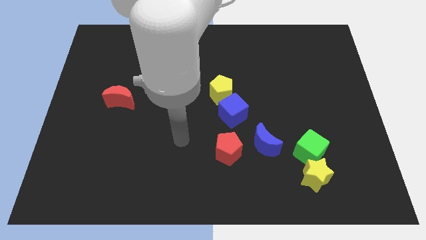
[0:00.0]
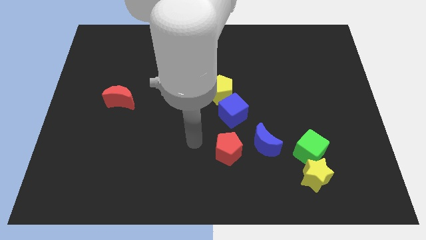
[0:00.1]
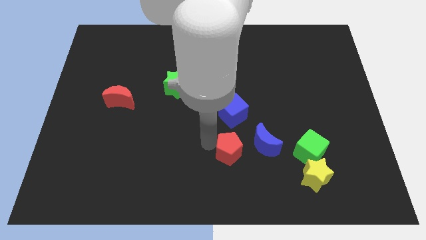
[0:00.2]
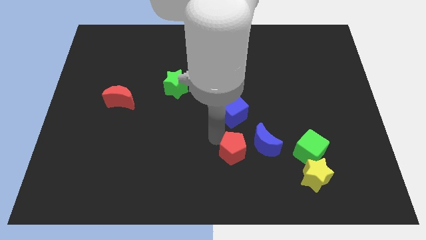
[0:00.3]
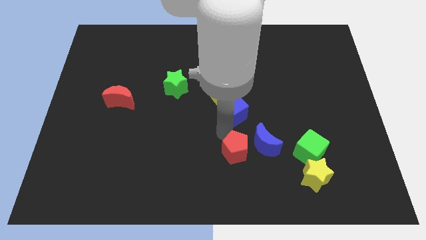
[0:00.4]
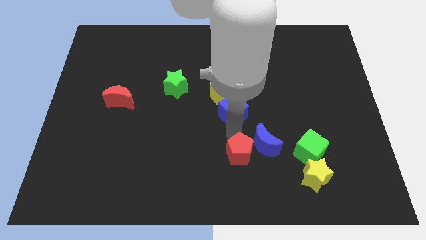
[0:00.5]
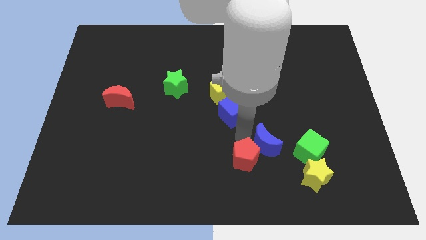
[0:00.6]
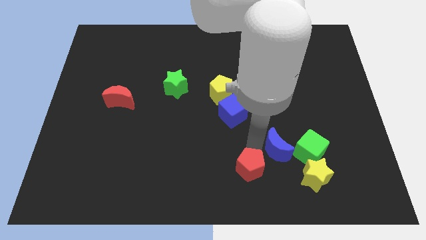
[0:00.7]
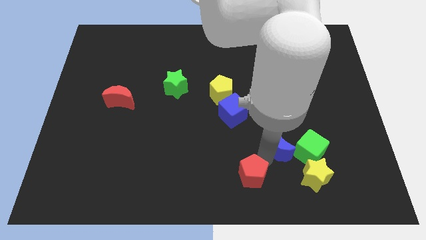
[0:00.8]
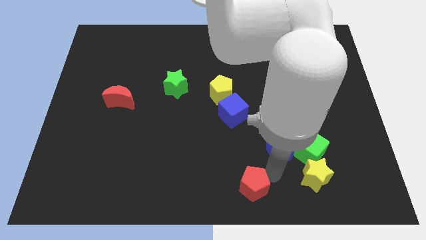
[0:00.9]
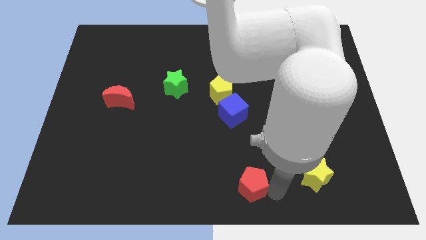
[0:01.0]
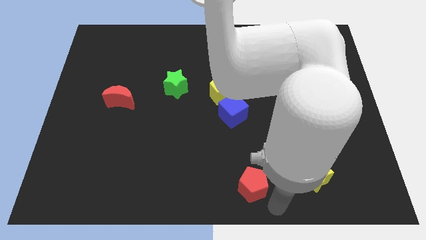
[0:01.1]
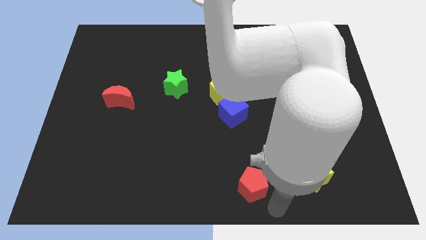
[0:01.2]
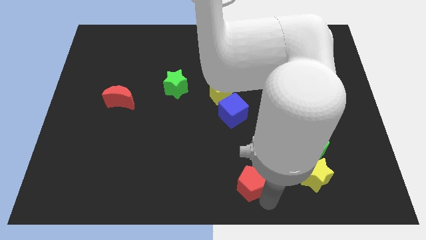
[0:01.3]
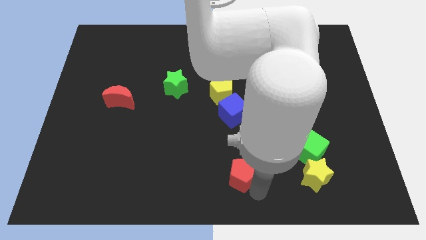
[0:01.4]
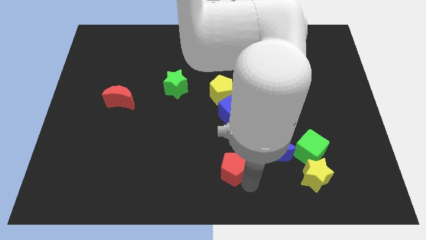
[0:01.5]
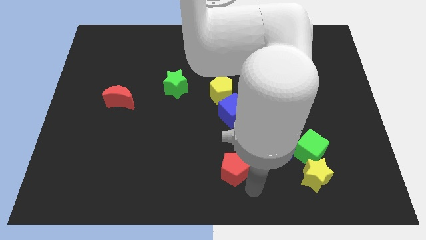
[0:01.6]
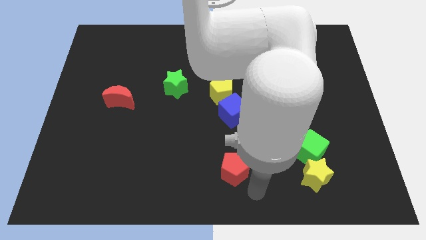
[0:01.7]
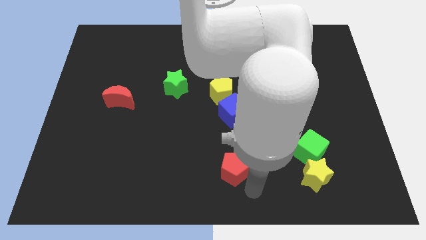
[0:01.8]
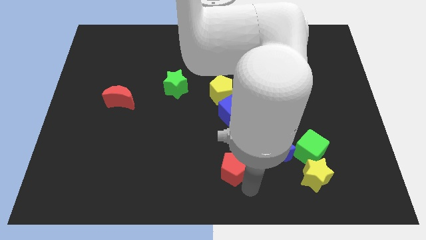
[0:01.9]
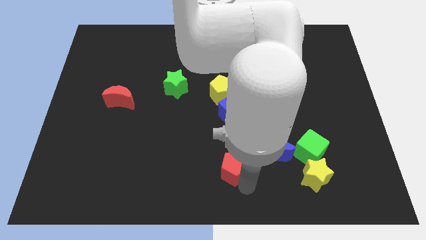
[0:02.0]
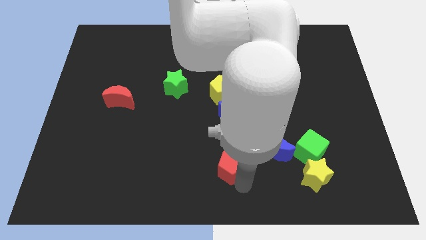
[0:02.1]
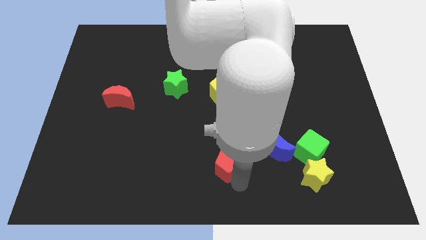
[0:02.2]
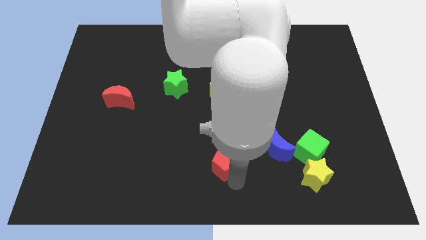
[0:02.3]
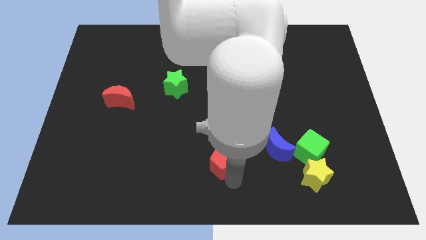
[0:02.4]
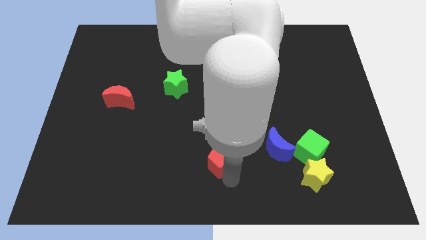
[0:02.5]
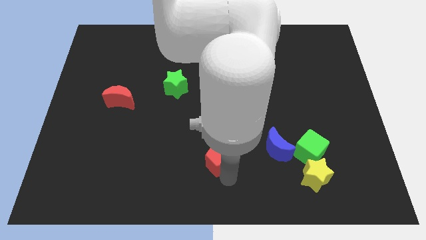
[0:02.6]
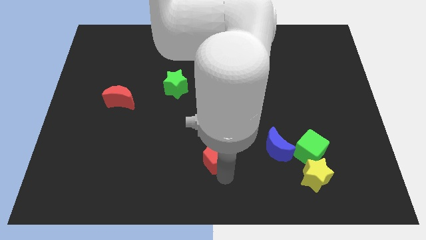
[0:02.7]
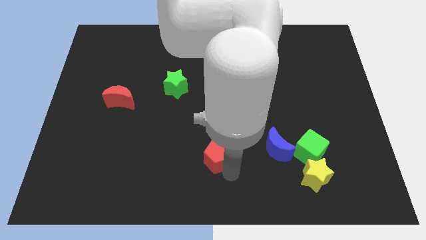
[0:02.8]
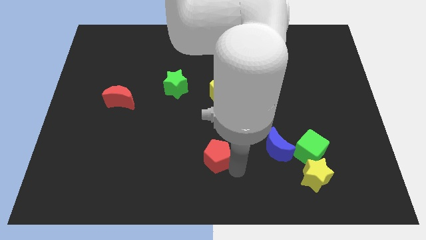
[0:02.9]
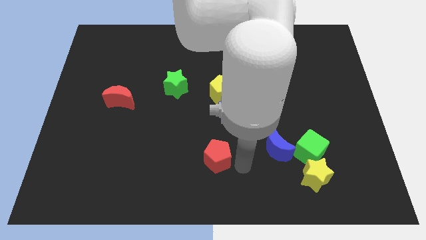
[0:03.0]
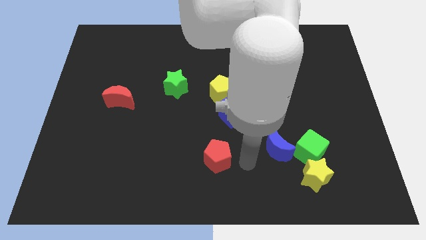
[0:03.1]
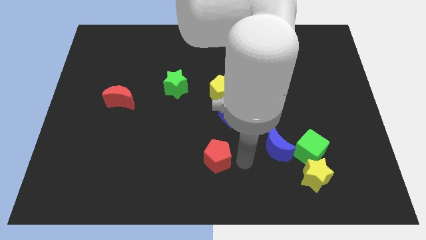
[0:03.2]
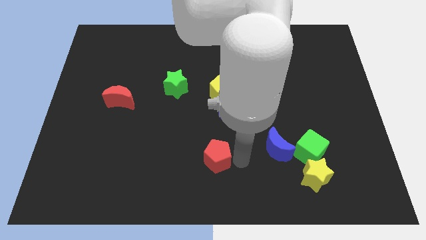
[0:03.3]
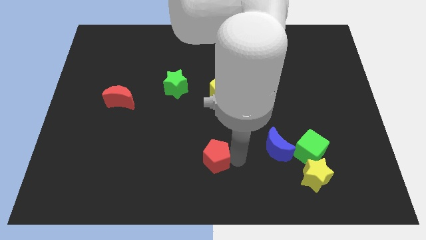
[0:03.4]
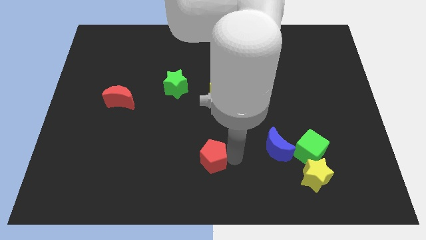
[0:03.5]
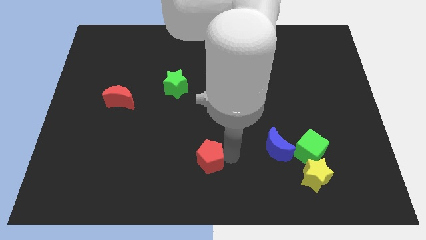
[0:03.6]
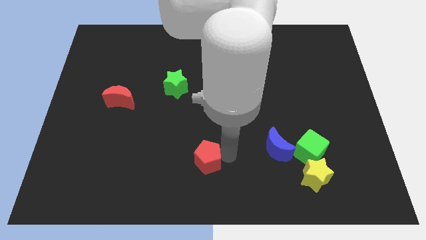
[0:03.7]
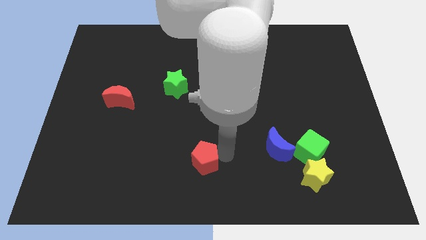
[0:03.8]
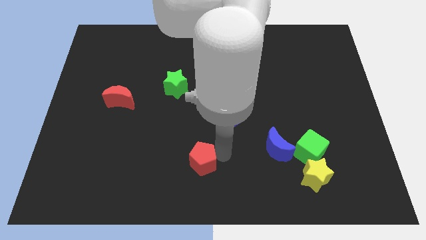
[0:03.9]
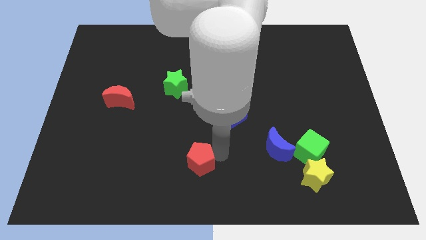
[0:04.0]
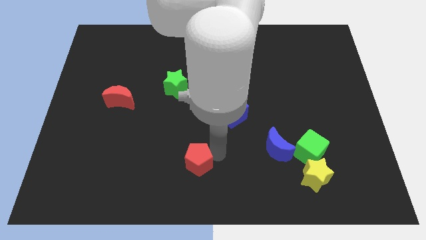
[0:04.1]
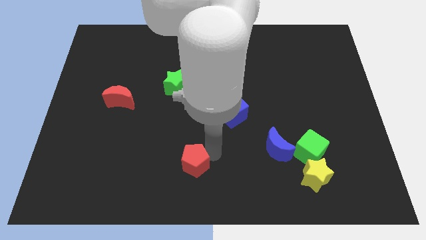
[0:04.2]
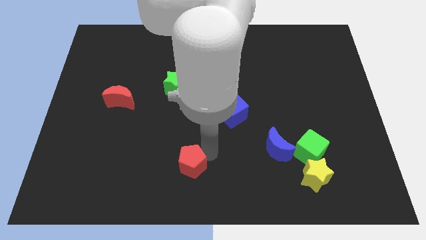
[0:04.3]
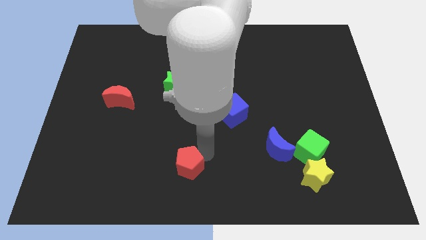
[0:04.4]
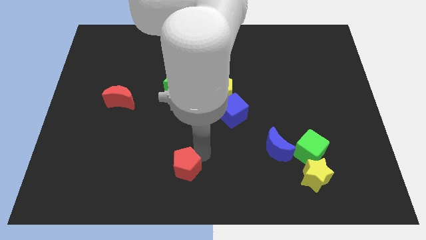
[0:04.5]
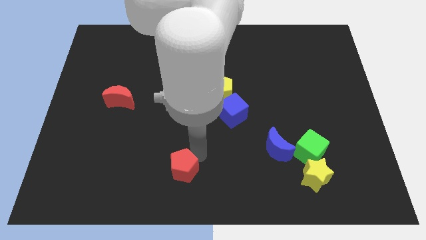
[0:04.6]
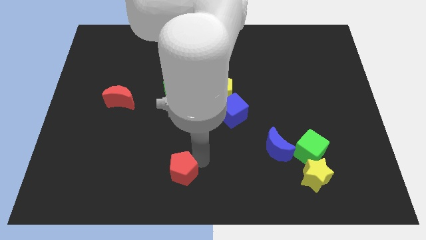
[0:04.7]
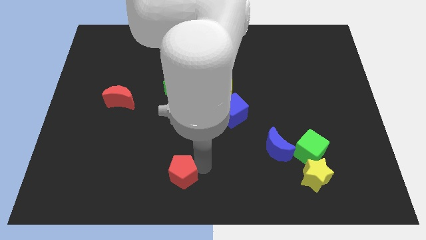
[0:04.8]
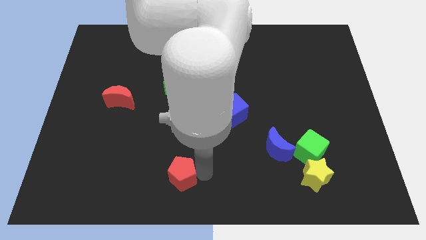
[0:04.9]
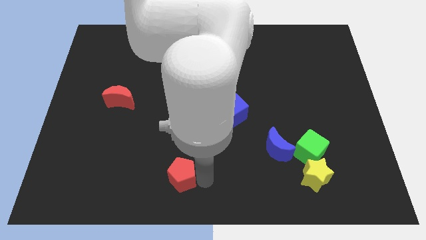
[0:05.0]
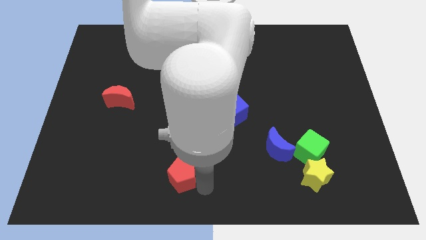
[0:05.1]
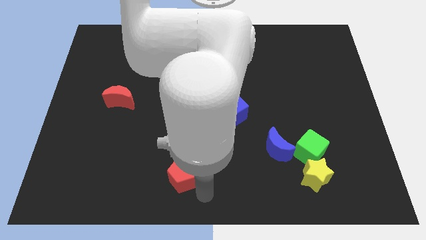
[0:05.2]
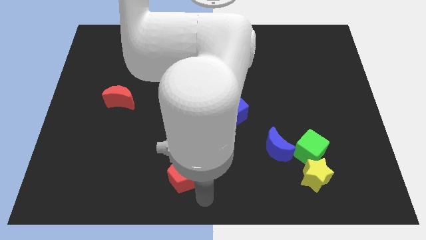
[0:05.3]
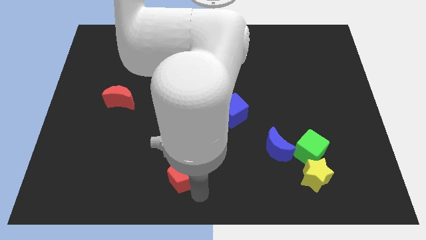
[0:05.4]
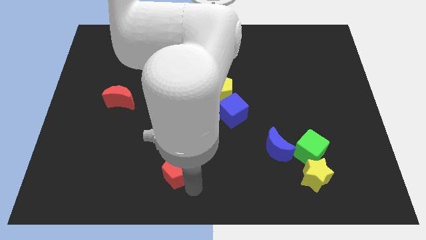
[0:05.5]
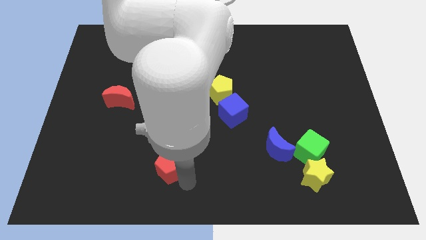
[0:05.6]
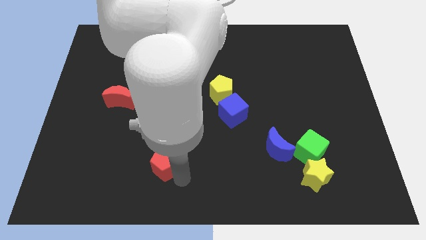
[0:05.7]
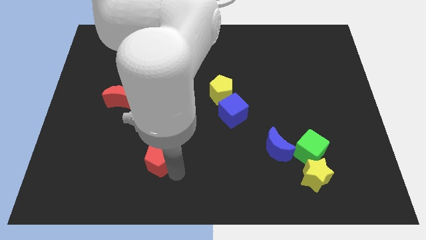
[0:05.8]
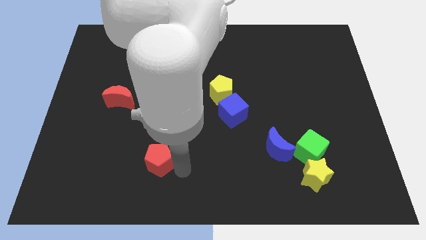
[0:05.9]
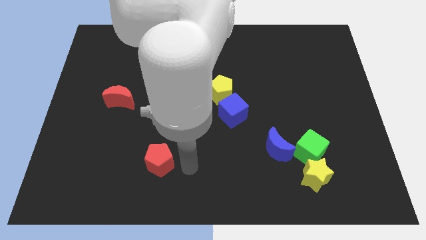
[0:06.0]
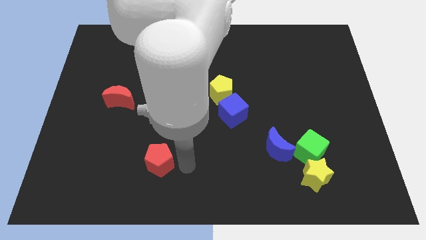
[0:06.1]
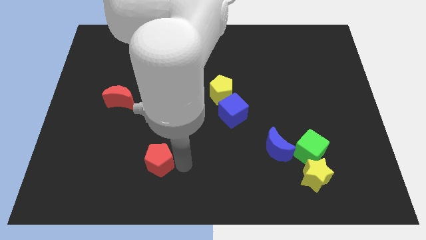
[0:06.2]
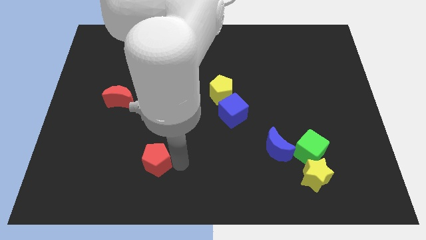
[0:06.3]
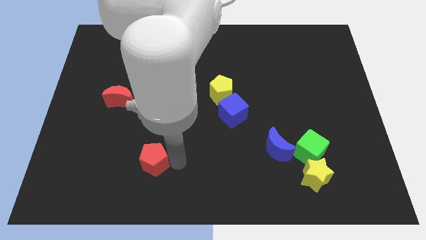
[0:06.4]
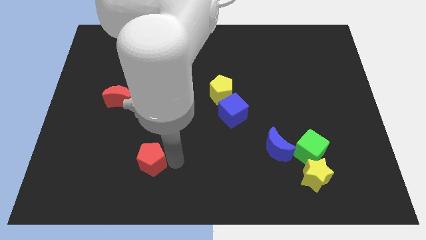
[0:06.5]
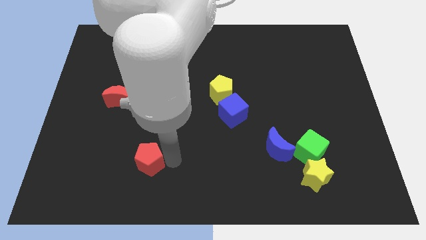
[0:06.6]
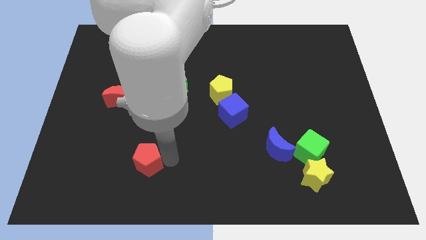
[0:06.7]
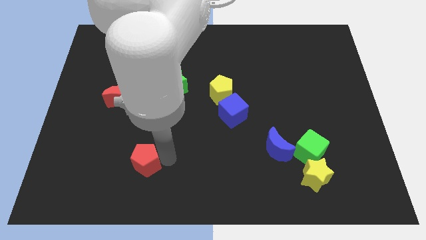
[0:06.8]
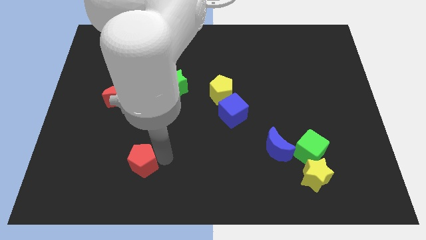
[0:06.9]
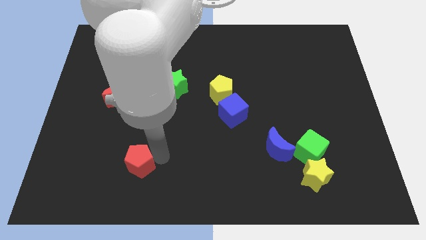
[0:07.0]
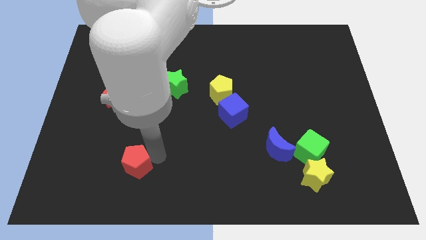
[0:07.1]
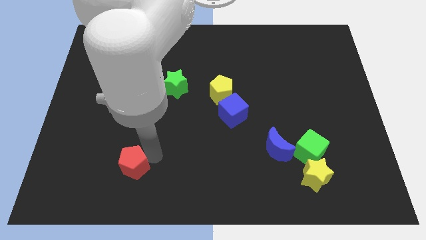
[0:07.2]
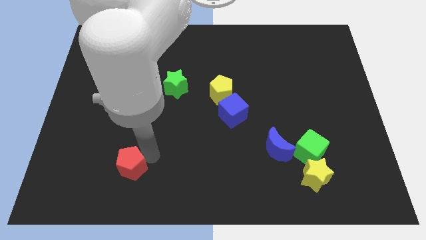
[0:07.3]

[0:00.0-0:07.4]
slide the red pentagon to the left

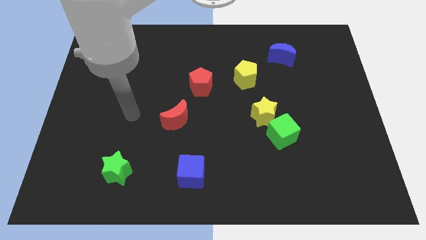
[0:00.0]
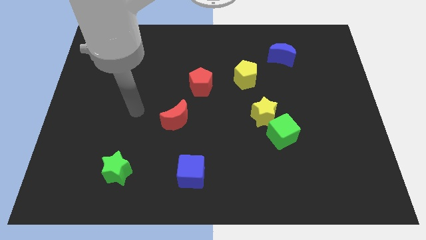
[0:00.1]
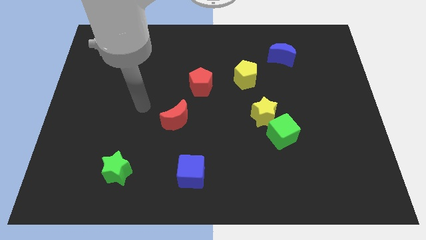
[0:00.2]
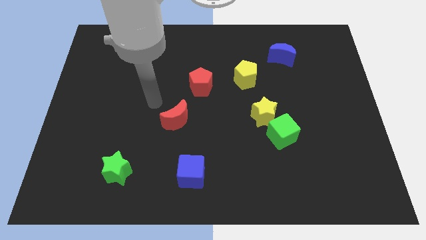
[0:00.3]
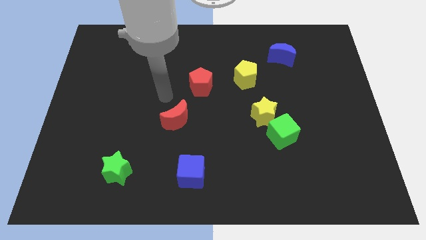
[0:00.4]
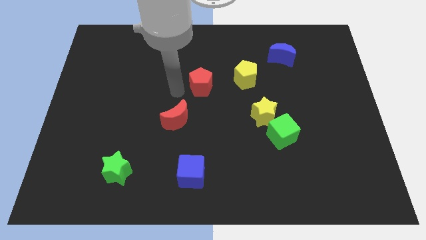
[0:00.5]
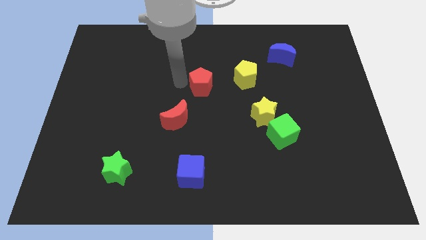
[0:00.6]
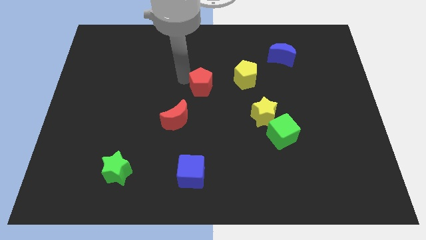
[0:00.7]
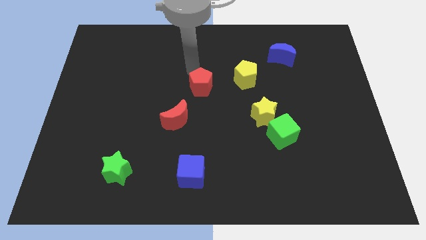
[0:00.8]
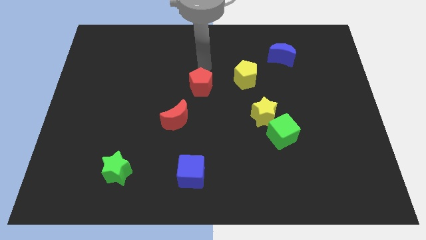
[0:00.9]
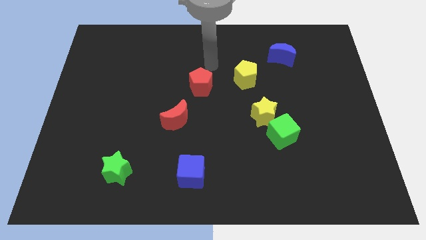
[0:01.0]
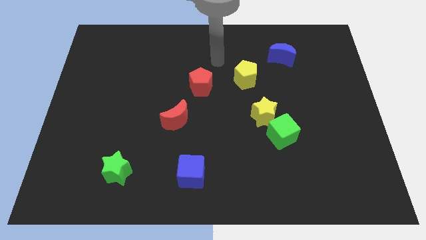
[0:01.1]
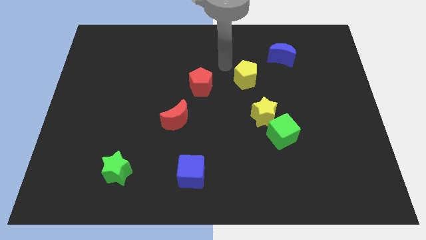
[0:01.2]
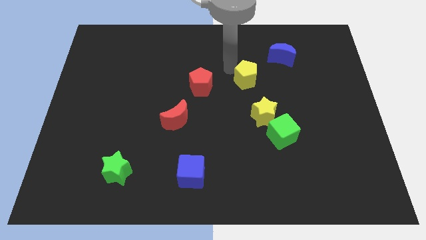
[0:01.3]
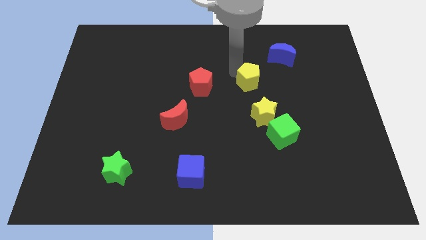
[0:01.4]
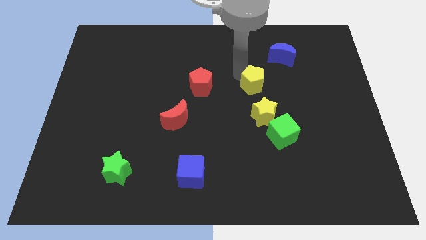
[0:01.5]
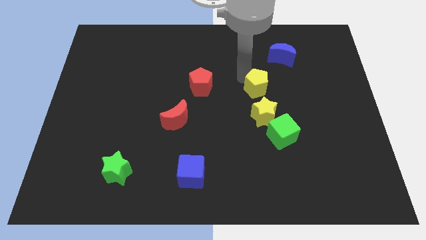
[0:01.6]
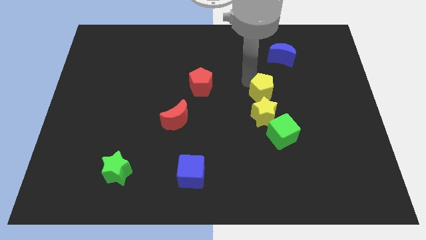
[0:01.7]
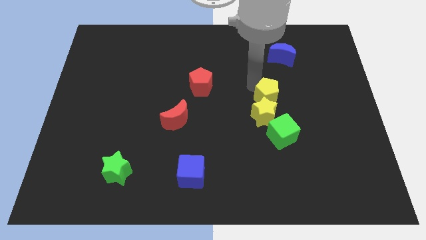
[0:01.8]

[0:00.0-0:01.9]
slightly slide the yellow pentagon downwards and right diagonally
